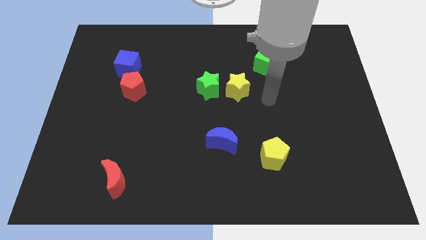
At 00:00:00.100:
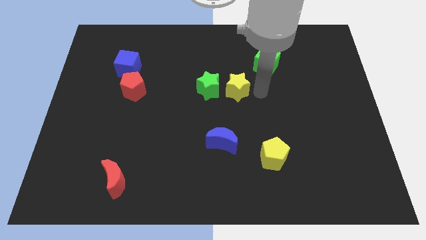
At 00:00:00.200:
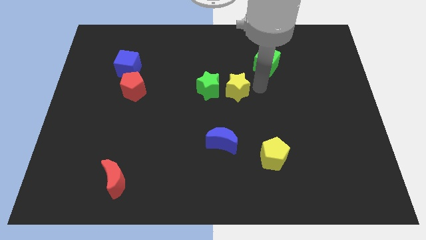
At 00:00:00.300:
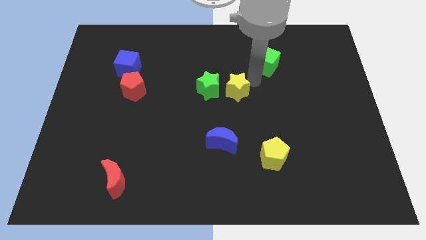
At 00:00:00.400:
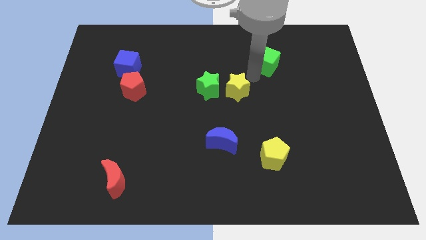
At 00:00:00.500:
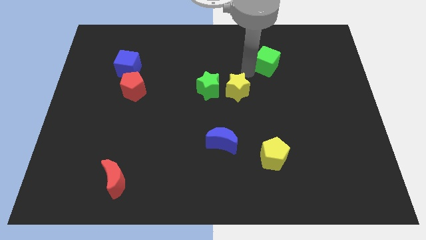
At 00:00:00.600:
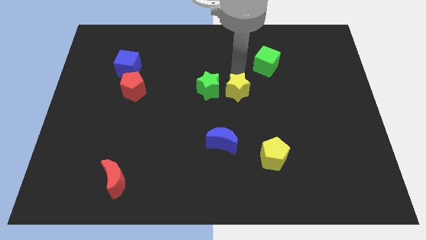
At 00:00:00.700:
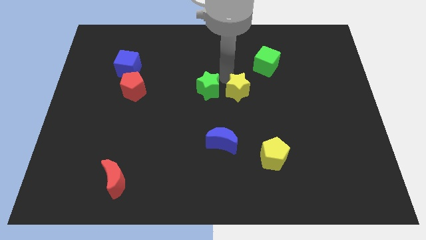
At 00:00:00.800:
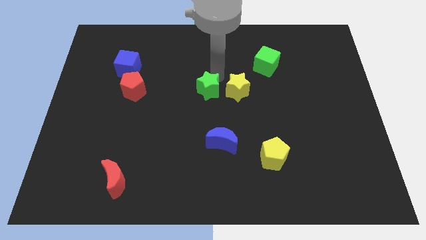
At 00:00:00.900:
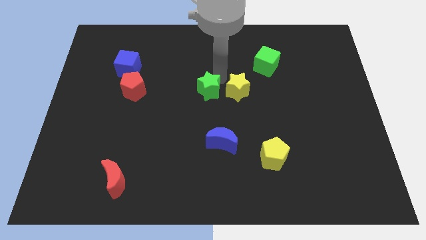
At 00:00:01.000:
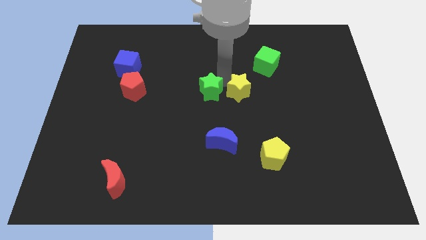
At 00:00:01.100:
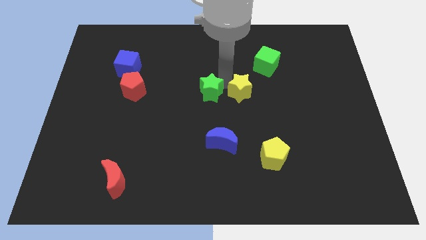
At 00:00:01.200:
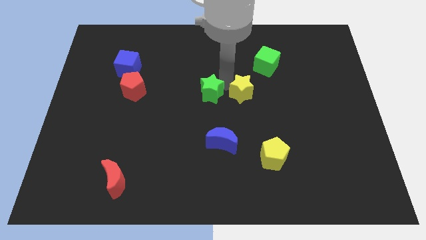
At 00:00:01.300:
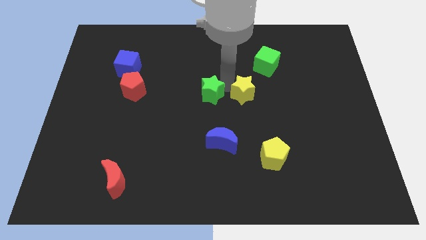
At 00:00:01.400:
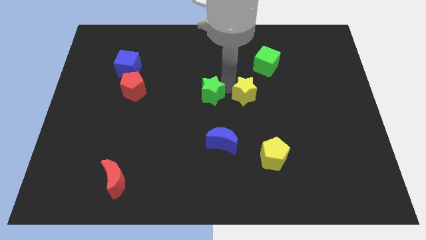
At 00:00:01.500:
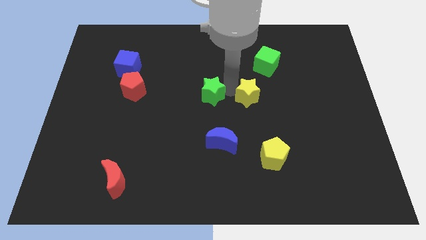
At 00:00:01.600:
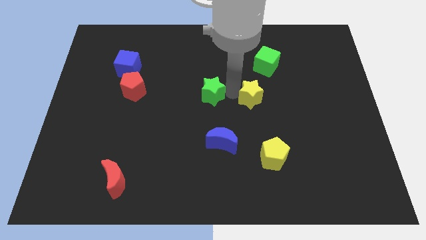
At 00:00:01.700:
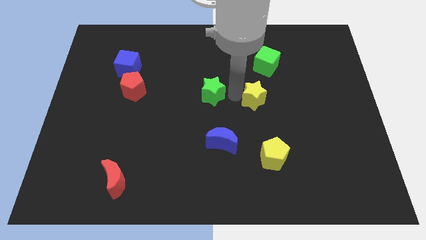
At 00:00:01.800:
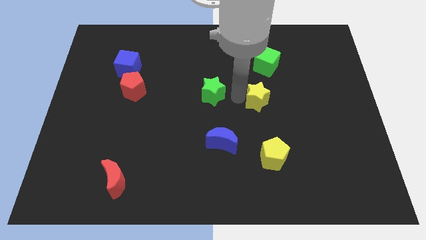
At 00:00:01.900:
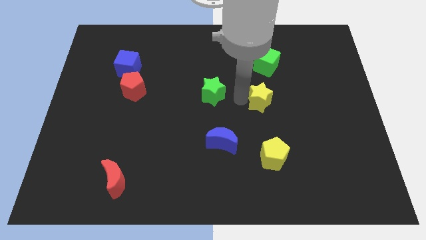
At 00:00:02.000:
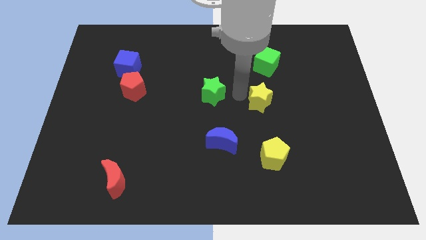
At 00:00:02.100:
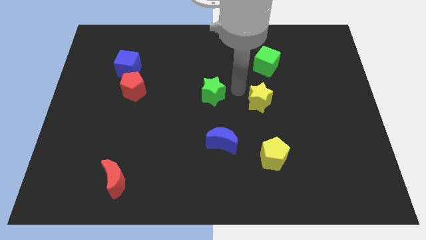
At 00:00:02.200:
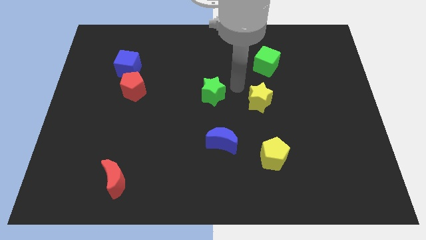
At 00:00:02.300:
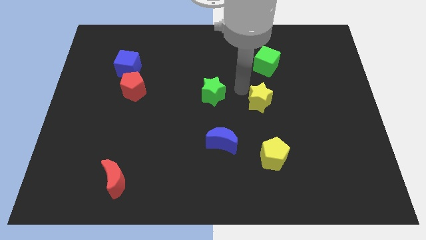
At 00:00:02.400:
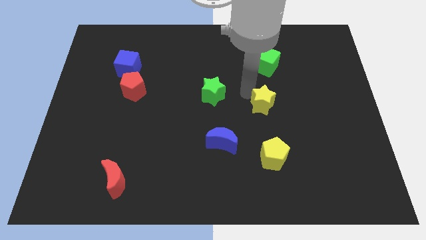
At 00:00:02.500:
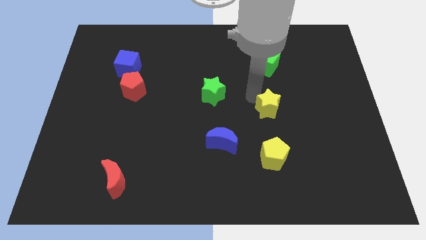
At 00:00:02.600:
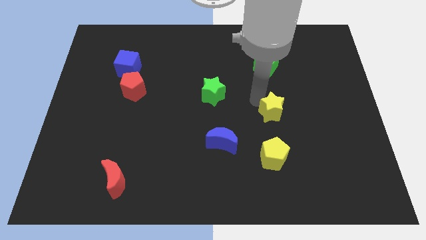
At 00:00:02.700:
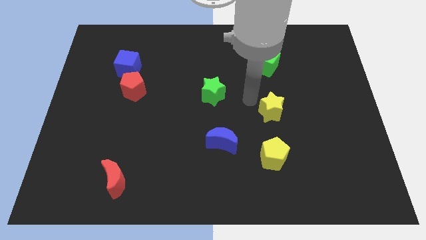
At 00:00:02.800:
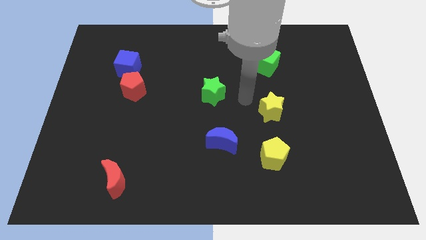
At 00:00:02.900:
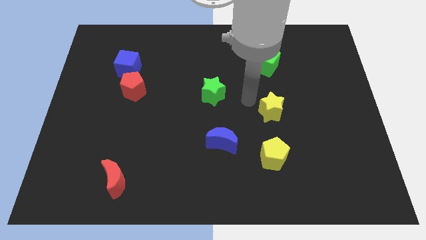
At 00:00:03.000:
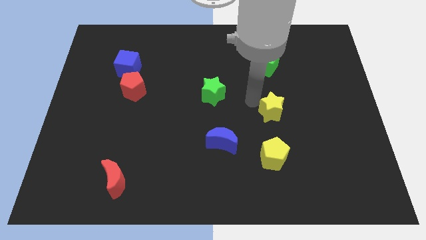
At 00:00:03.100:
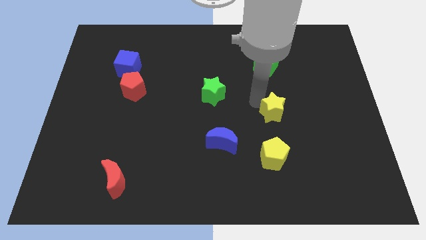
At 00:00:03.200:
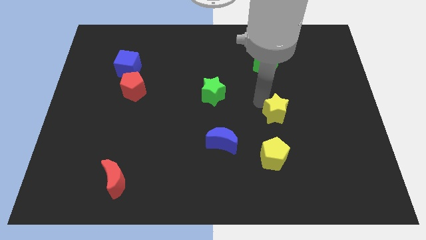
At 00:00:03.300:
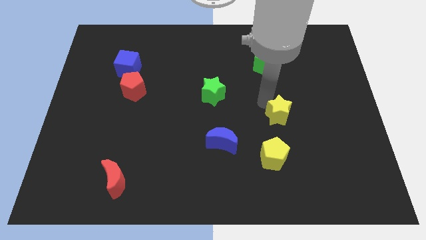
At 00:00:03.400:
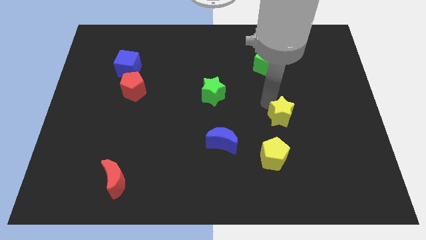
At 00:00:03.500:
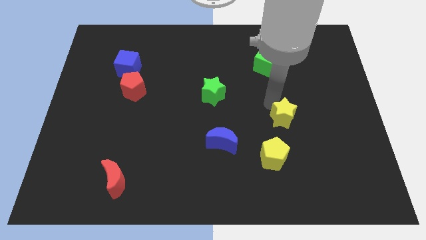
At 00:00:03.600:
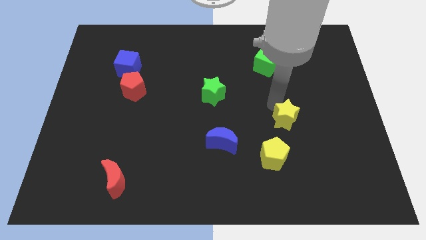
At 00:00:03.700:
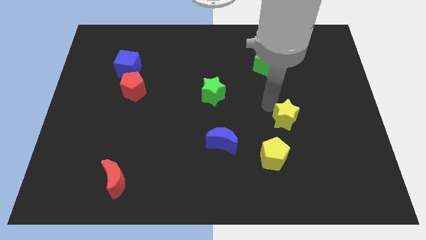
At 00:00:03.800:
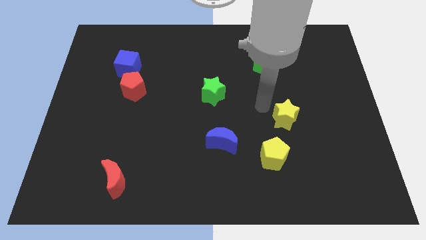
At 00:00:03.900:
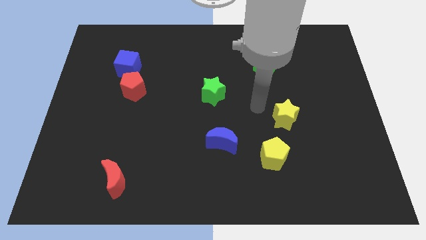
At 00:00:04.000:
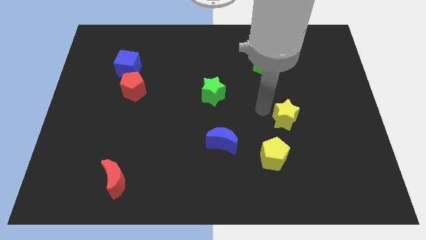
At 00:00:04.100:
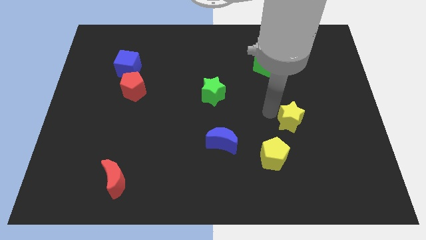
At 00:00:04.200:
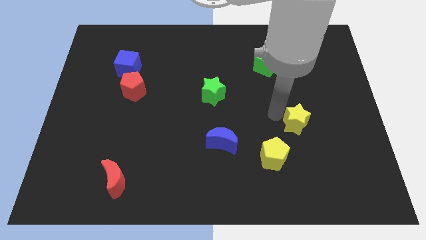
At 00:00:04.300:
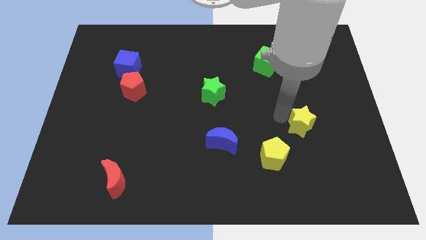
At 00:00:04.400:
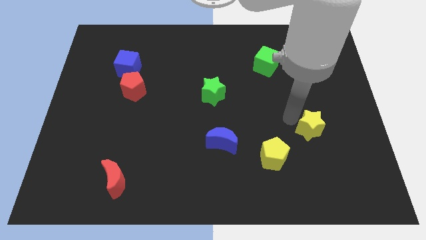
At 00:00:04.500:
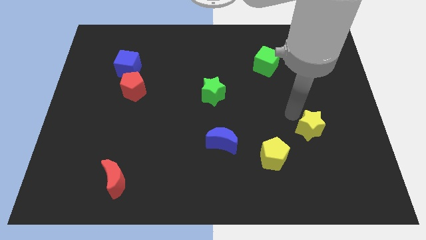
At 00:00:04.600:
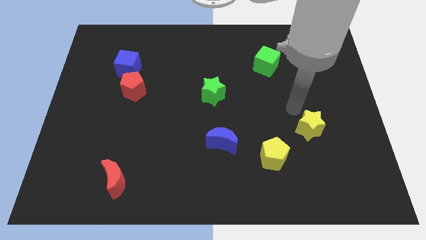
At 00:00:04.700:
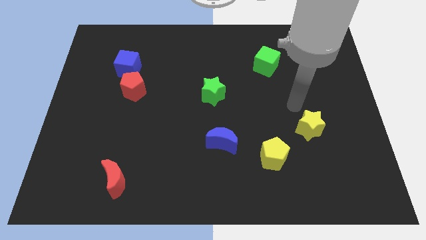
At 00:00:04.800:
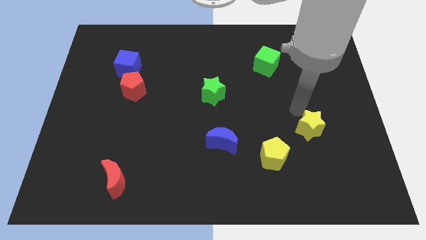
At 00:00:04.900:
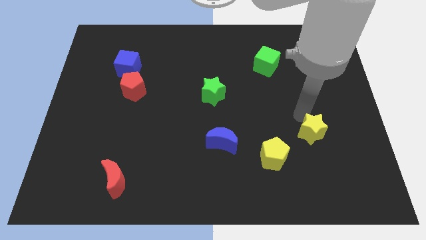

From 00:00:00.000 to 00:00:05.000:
push the yellow star down and to the right

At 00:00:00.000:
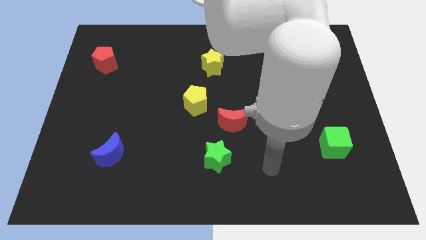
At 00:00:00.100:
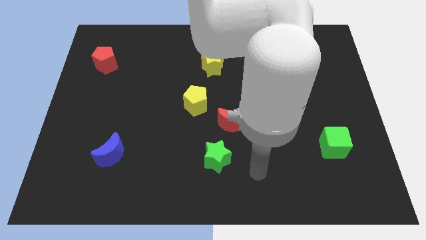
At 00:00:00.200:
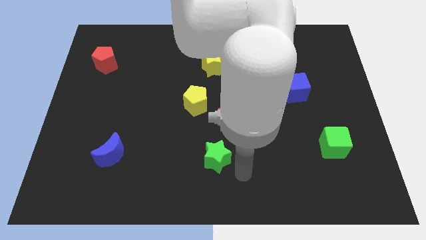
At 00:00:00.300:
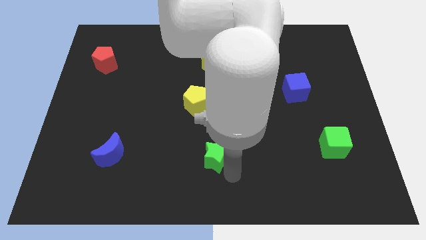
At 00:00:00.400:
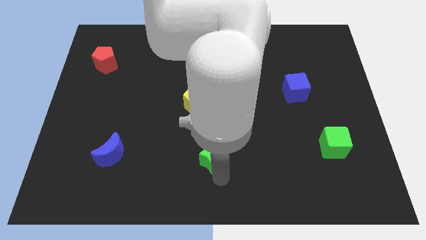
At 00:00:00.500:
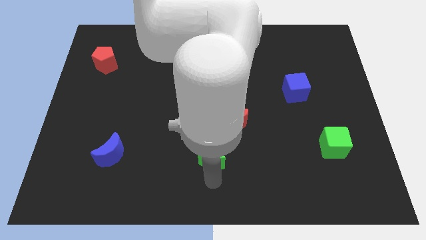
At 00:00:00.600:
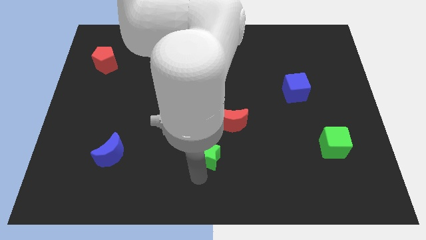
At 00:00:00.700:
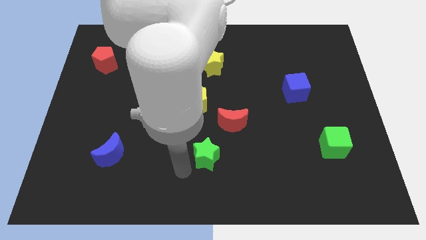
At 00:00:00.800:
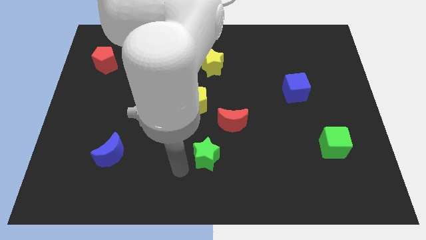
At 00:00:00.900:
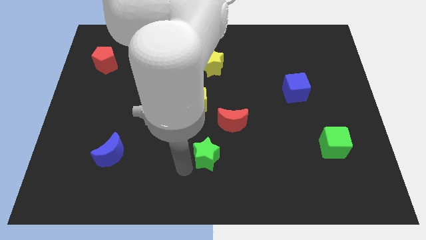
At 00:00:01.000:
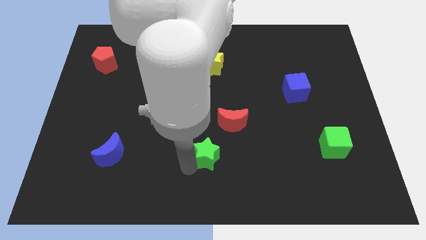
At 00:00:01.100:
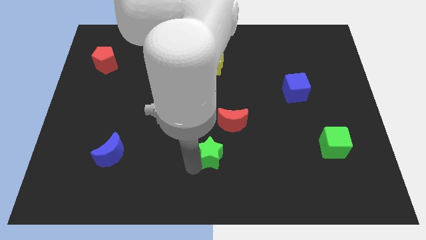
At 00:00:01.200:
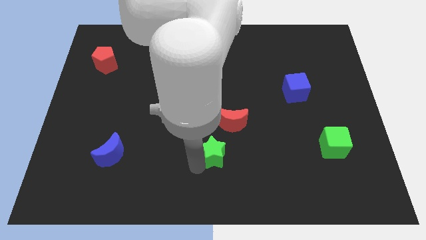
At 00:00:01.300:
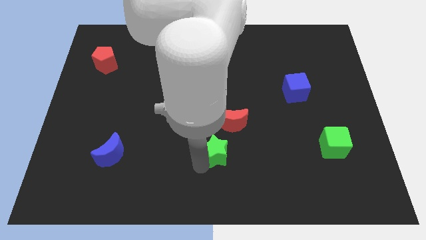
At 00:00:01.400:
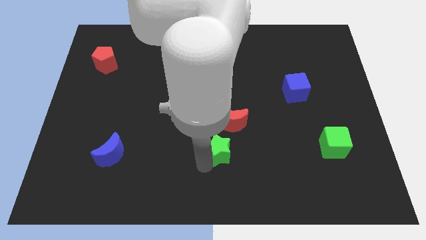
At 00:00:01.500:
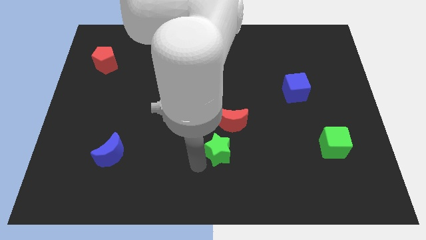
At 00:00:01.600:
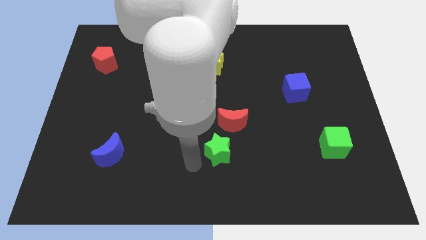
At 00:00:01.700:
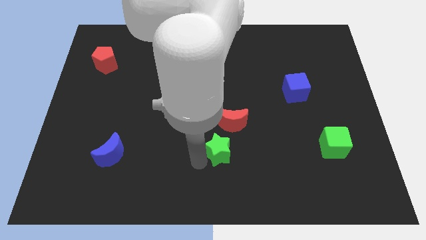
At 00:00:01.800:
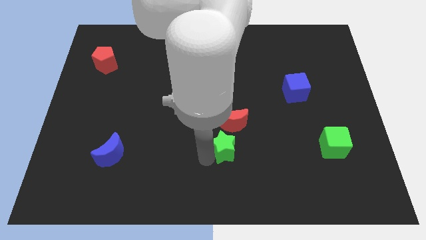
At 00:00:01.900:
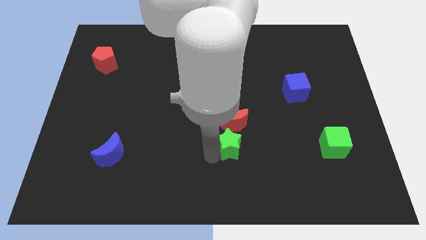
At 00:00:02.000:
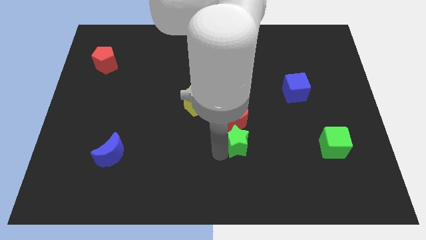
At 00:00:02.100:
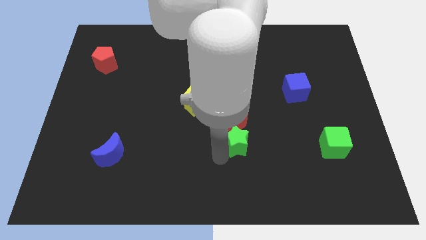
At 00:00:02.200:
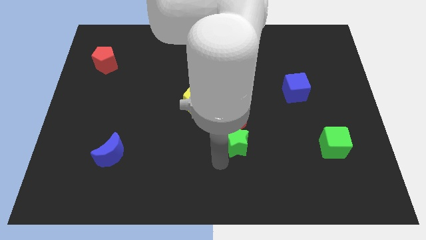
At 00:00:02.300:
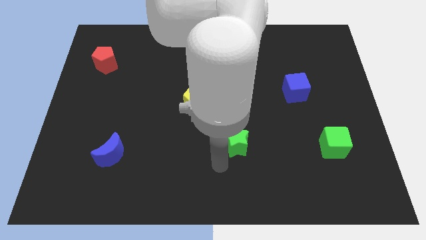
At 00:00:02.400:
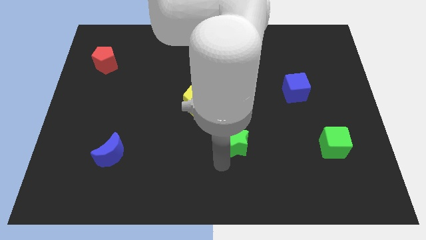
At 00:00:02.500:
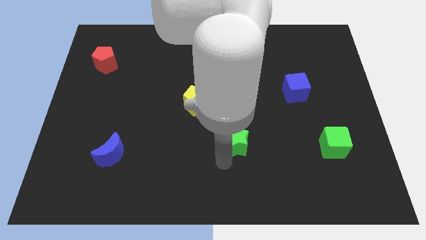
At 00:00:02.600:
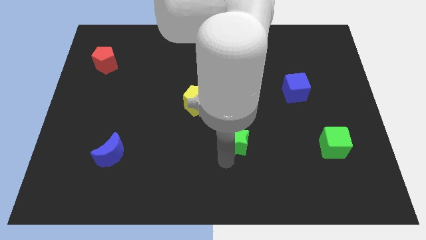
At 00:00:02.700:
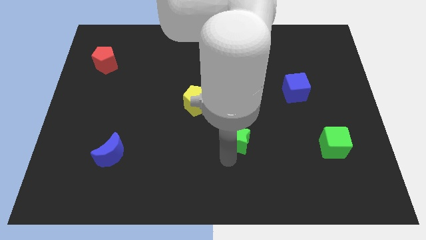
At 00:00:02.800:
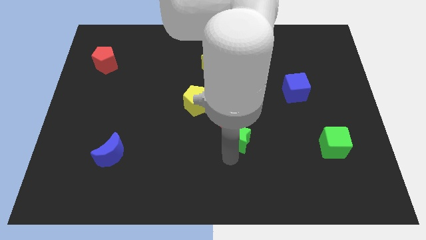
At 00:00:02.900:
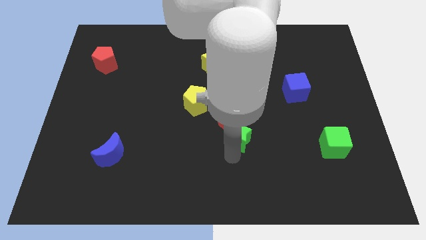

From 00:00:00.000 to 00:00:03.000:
slightly slide the green star up and to the right
